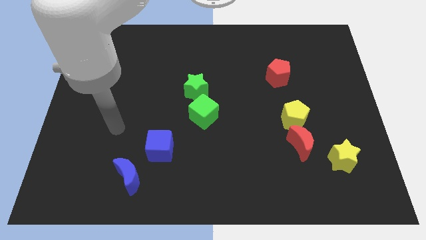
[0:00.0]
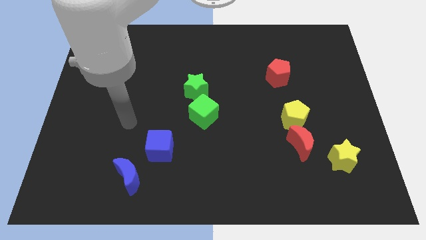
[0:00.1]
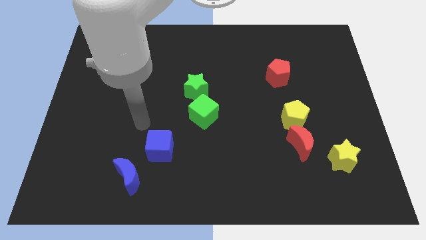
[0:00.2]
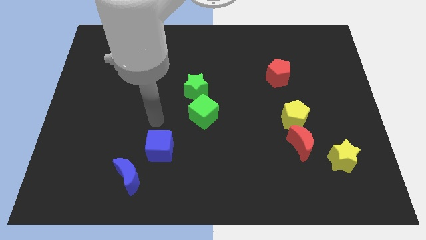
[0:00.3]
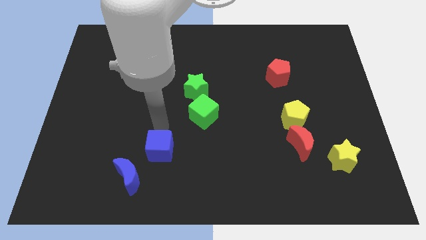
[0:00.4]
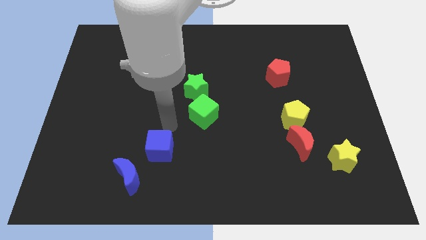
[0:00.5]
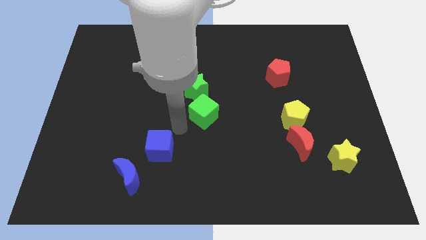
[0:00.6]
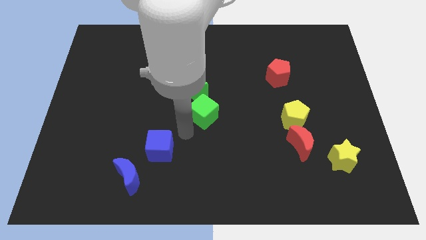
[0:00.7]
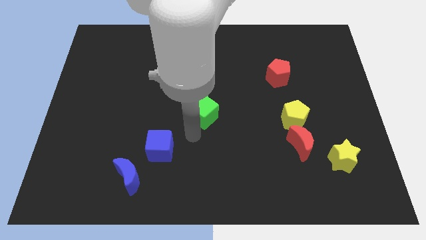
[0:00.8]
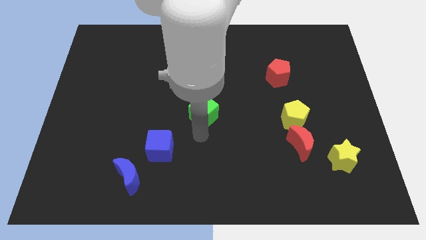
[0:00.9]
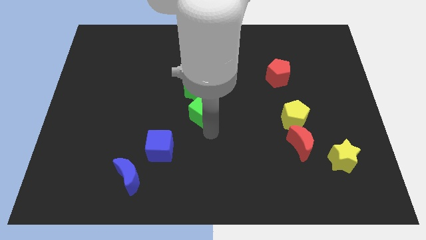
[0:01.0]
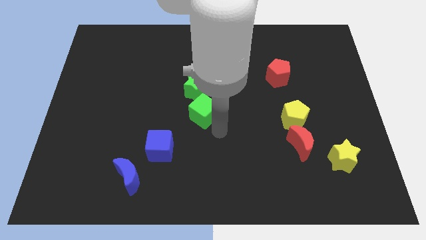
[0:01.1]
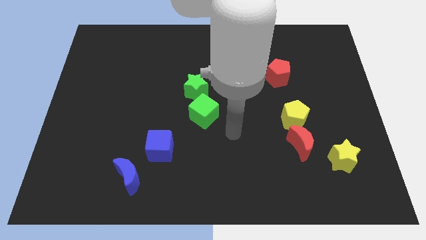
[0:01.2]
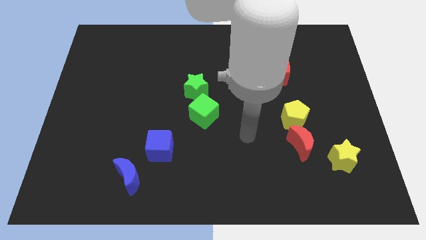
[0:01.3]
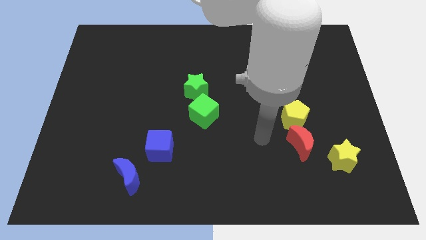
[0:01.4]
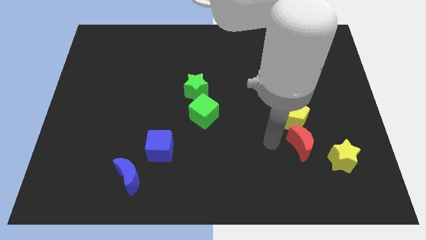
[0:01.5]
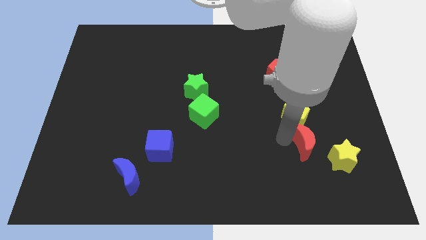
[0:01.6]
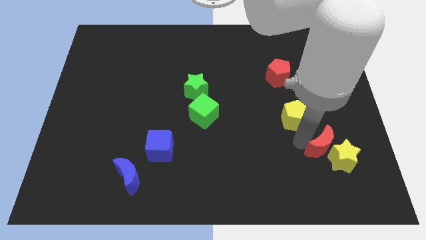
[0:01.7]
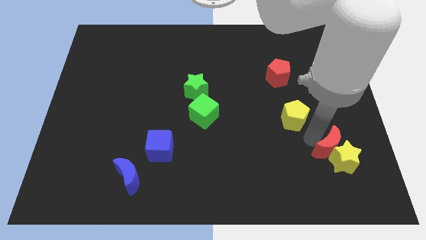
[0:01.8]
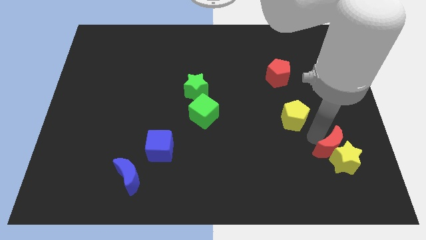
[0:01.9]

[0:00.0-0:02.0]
pull the yellow pentagon apart from the red moon

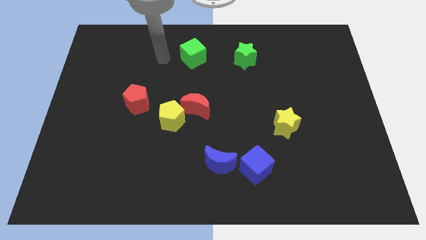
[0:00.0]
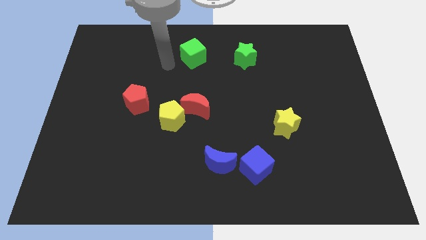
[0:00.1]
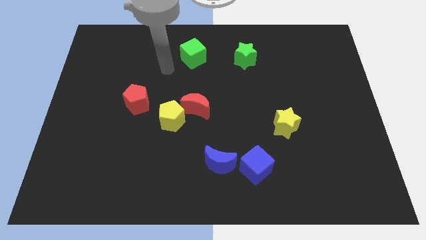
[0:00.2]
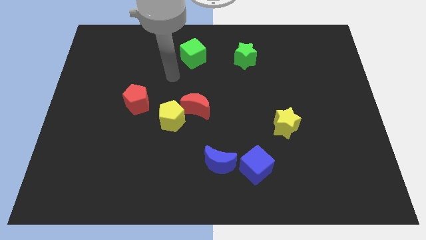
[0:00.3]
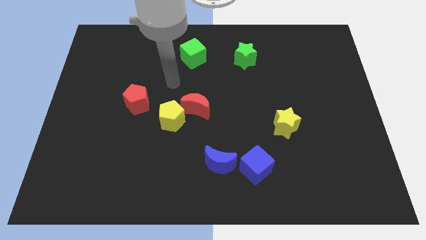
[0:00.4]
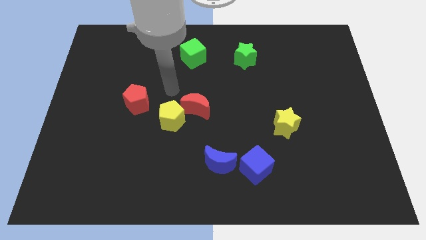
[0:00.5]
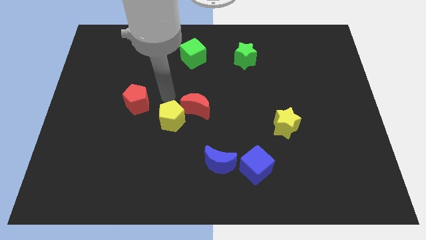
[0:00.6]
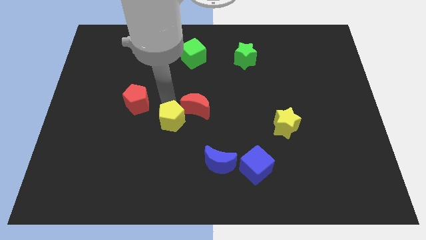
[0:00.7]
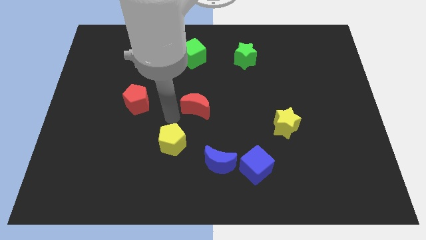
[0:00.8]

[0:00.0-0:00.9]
move the red moon away from the yellow pentagon

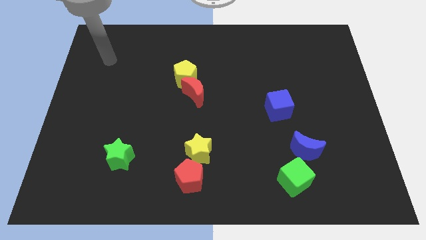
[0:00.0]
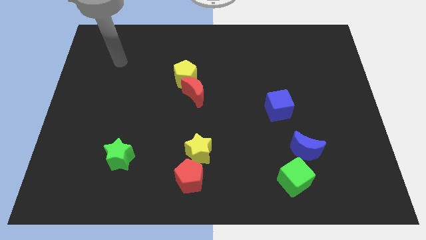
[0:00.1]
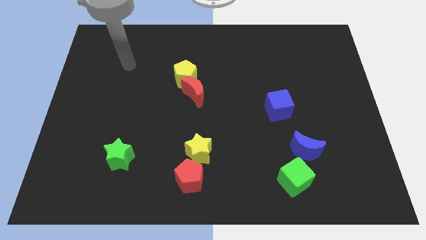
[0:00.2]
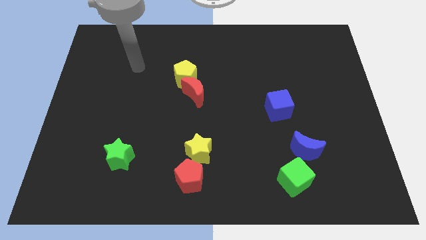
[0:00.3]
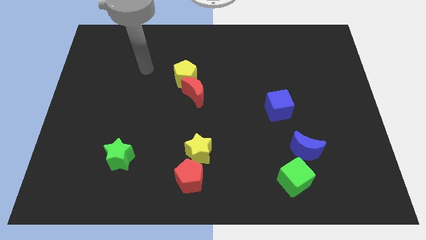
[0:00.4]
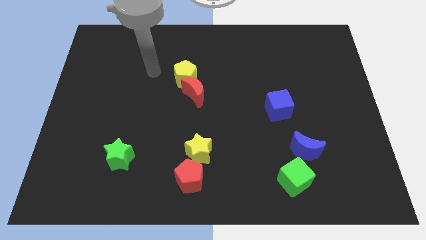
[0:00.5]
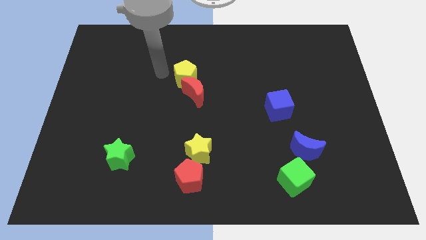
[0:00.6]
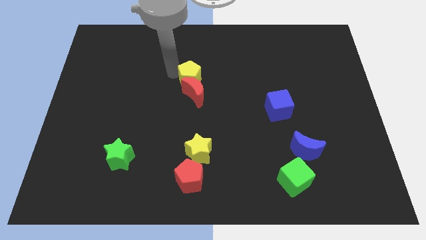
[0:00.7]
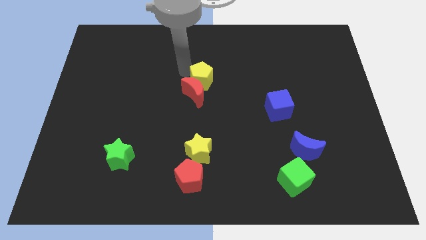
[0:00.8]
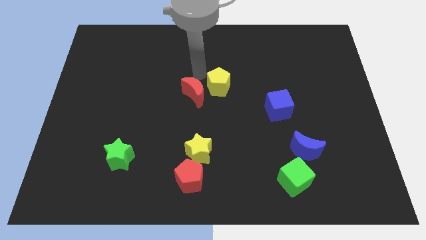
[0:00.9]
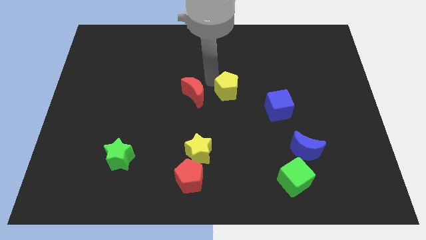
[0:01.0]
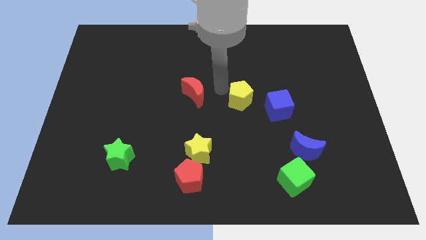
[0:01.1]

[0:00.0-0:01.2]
pull the red moon apart from the yellow pentagon

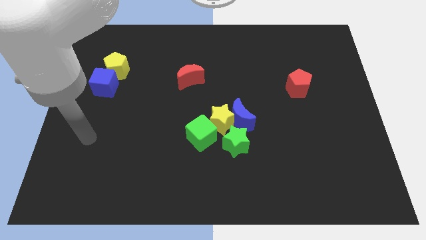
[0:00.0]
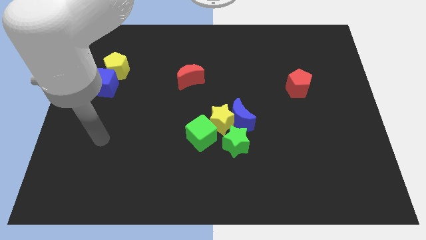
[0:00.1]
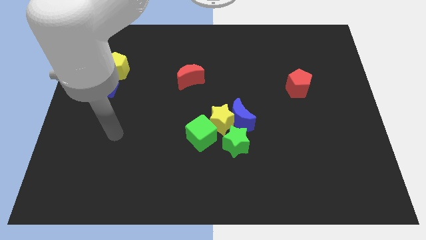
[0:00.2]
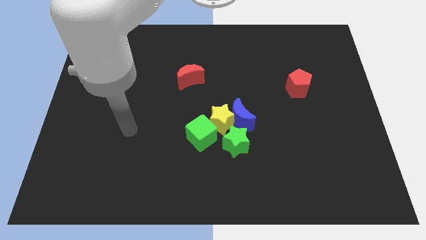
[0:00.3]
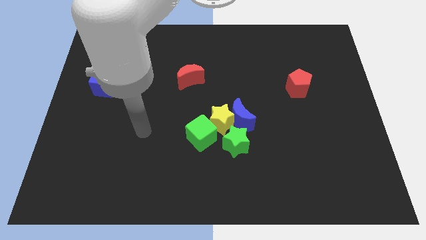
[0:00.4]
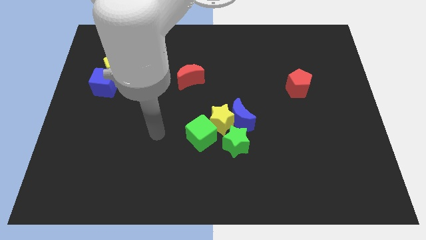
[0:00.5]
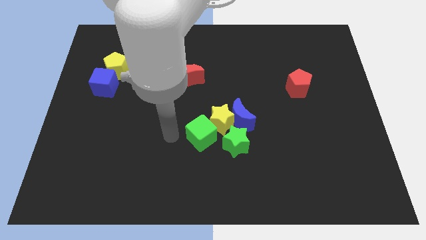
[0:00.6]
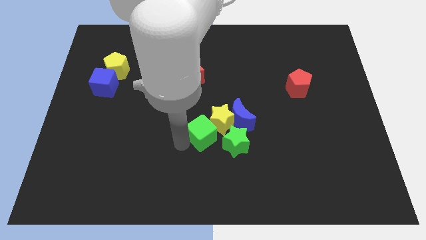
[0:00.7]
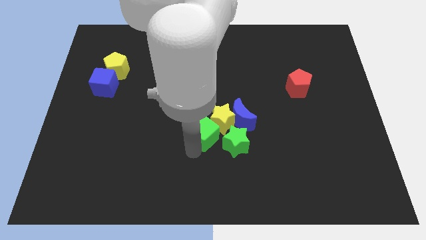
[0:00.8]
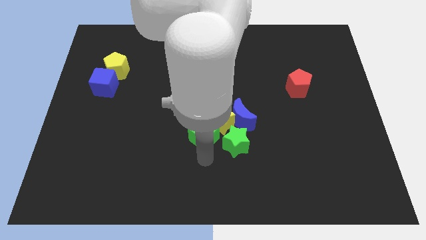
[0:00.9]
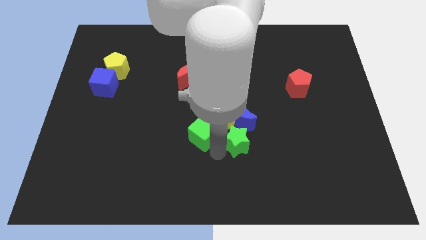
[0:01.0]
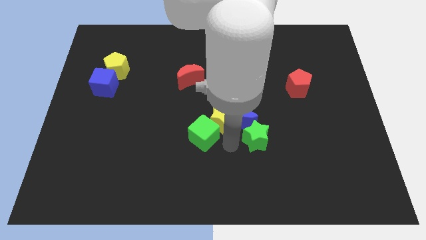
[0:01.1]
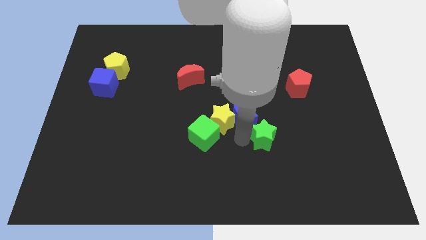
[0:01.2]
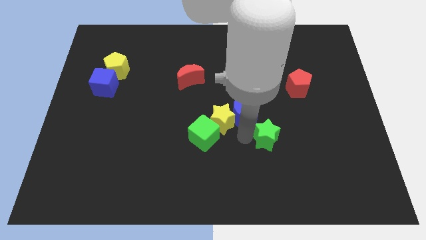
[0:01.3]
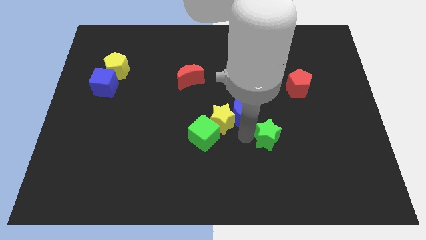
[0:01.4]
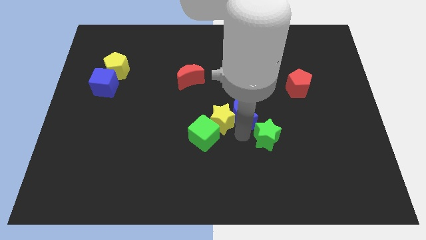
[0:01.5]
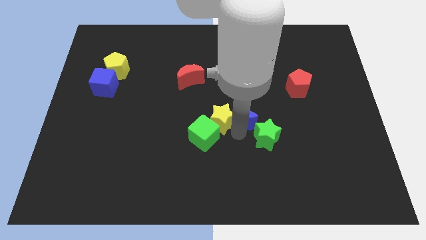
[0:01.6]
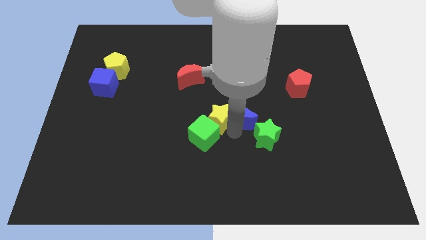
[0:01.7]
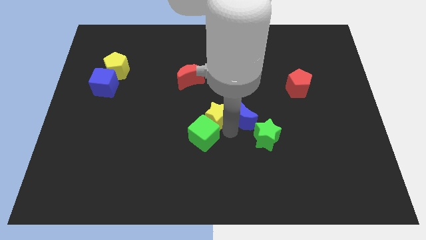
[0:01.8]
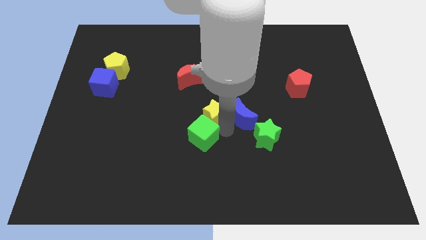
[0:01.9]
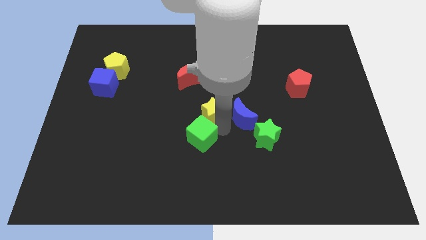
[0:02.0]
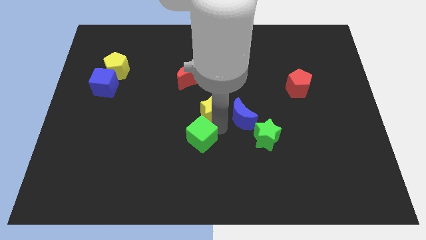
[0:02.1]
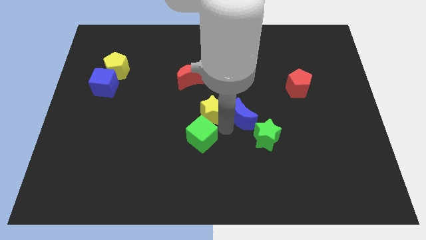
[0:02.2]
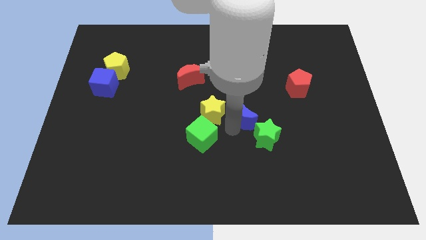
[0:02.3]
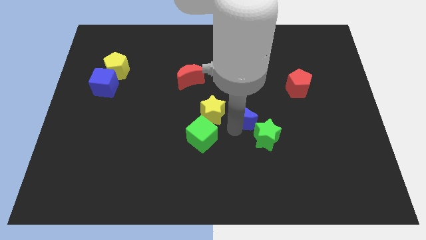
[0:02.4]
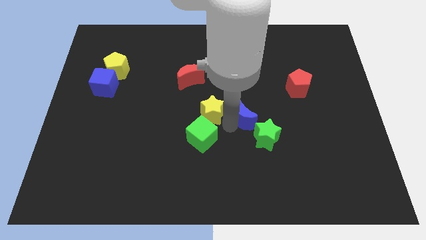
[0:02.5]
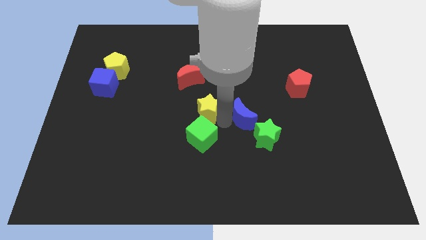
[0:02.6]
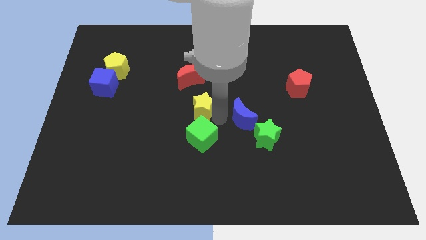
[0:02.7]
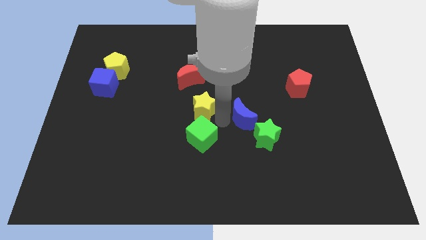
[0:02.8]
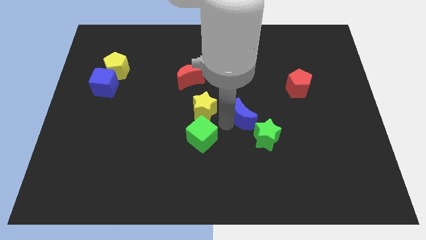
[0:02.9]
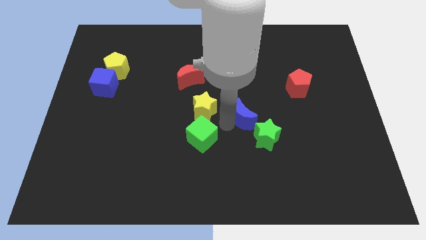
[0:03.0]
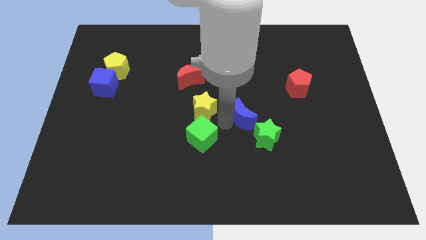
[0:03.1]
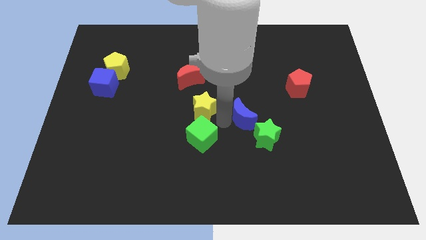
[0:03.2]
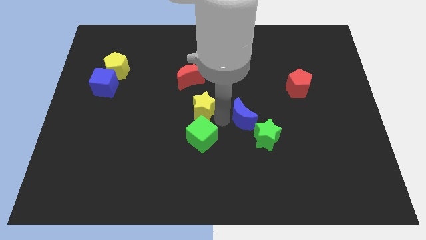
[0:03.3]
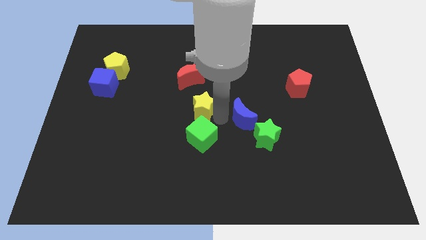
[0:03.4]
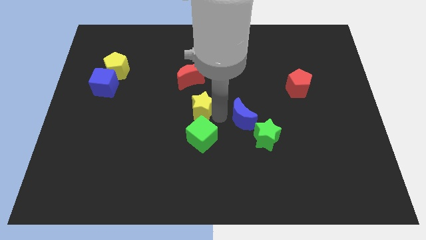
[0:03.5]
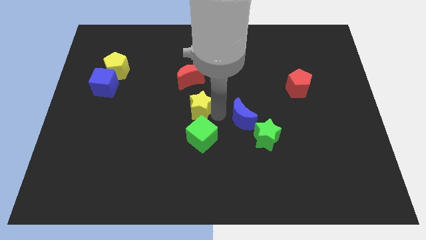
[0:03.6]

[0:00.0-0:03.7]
move the yellow star away from the clump

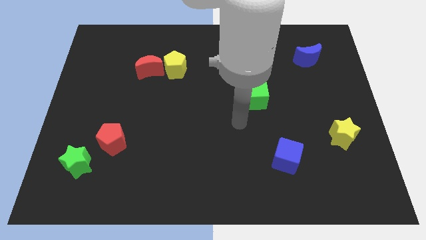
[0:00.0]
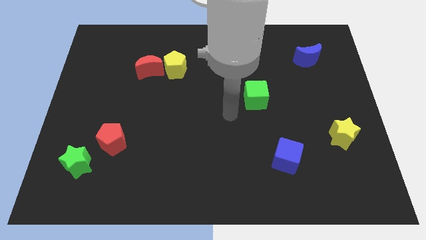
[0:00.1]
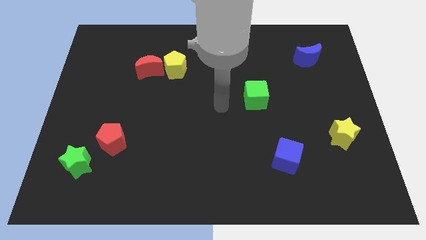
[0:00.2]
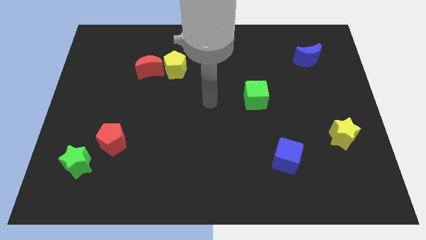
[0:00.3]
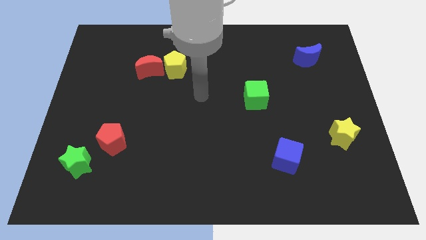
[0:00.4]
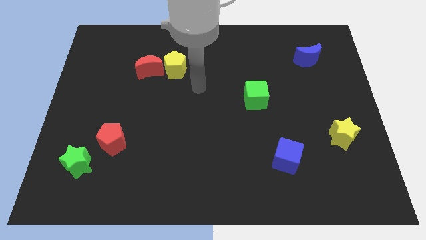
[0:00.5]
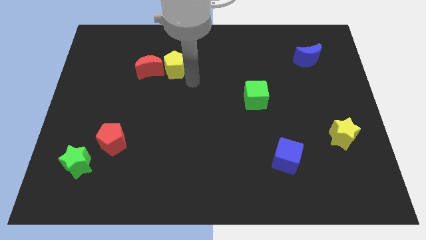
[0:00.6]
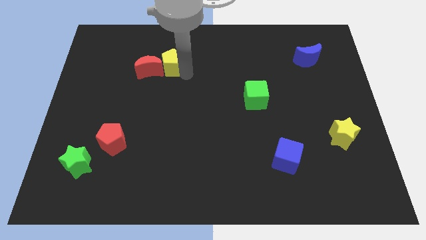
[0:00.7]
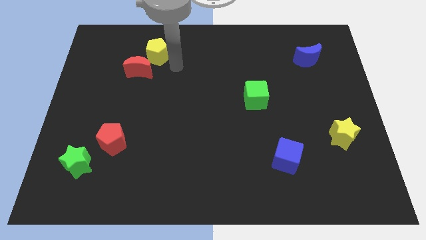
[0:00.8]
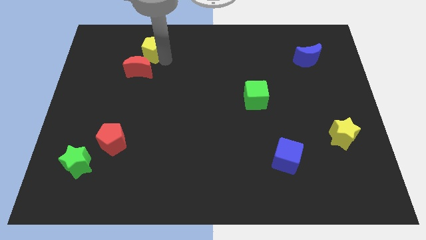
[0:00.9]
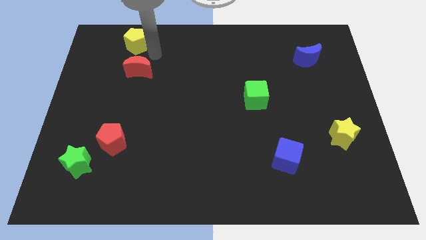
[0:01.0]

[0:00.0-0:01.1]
separate the red moon from the yellow pentagon

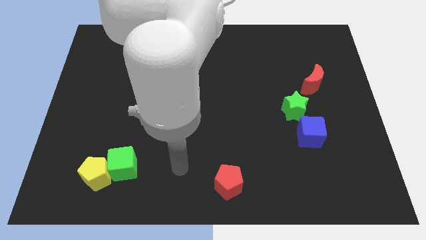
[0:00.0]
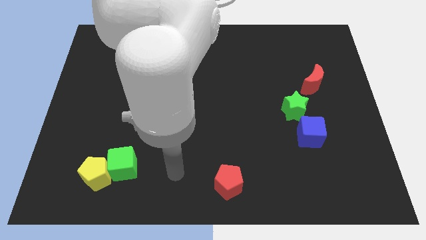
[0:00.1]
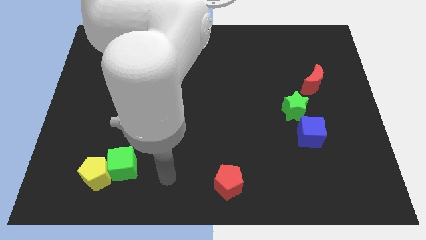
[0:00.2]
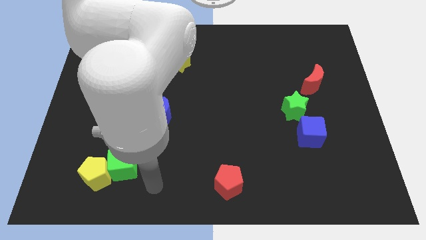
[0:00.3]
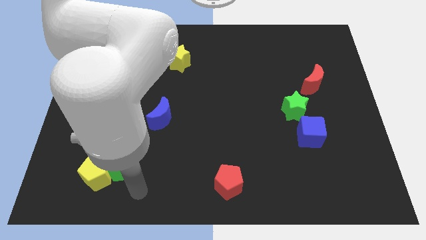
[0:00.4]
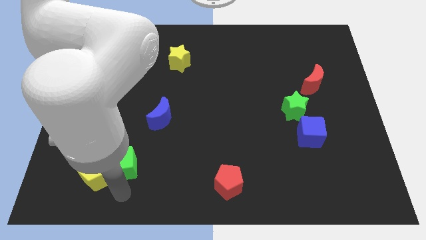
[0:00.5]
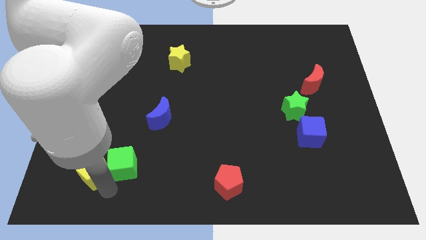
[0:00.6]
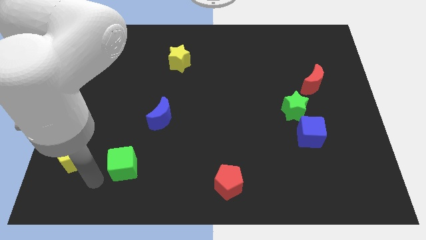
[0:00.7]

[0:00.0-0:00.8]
move the green cube away from the yellow pentagon
